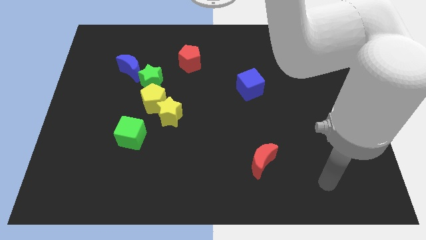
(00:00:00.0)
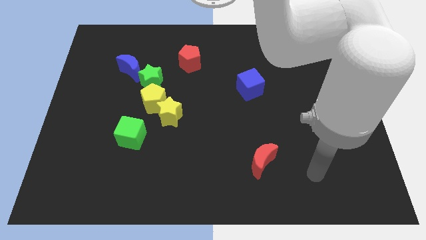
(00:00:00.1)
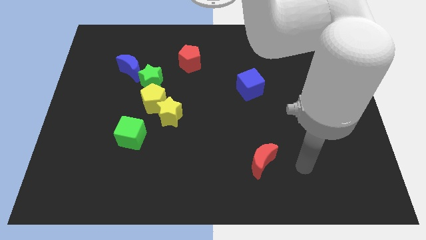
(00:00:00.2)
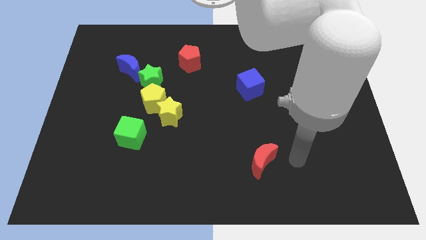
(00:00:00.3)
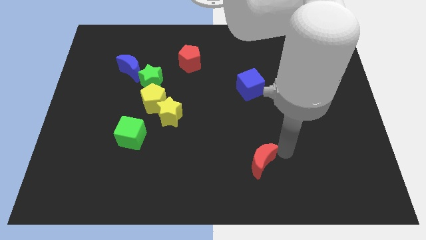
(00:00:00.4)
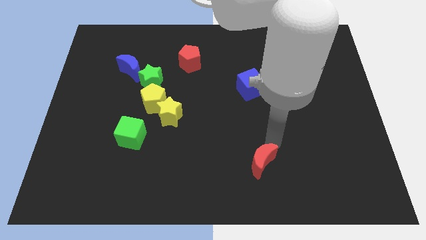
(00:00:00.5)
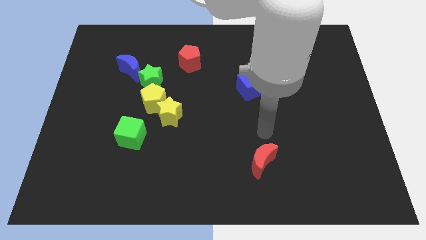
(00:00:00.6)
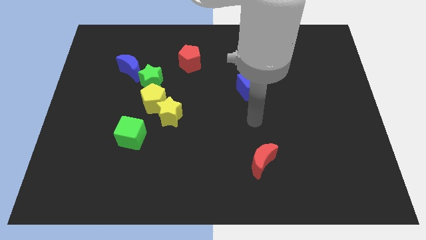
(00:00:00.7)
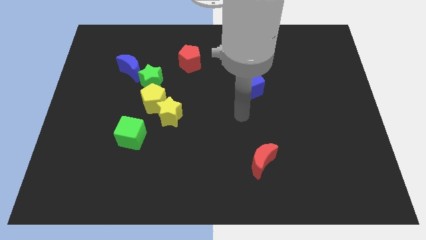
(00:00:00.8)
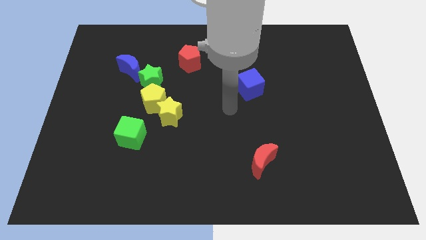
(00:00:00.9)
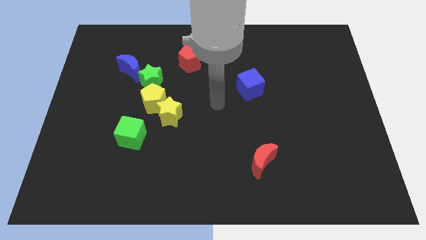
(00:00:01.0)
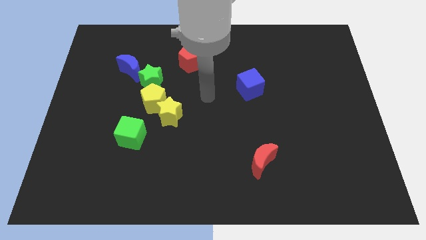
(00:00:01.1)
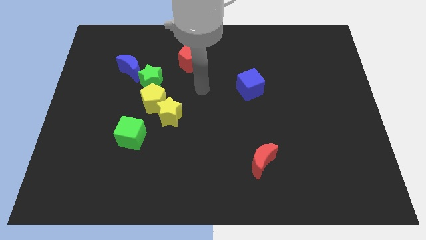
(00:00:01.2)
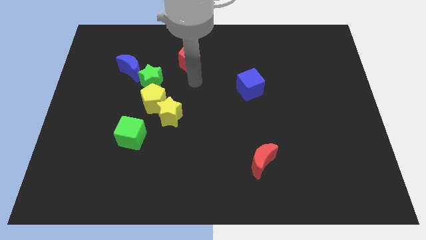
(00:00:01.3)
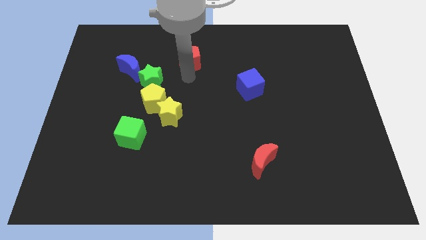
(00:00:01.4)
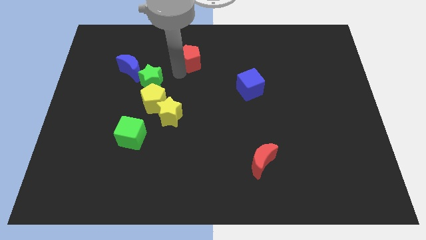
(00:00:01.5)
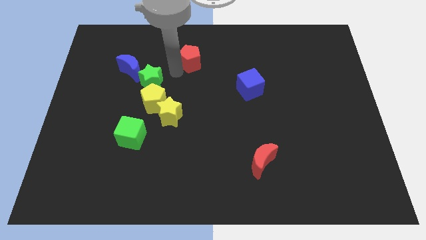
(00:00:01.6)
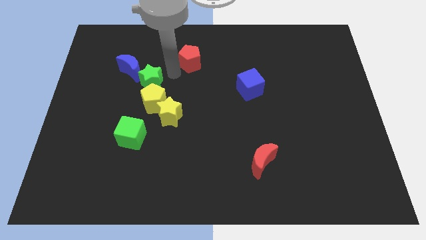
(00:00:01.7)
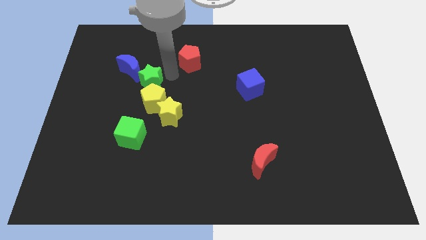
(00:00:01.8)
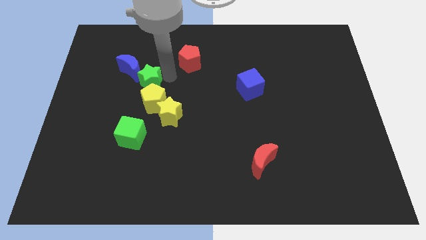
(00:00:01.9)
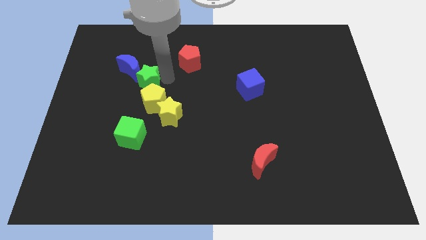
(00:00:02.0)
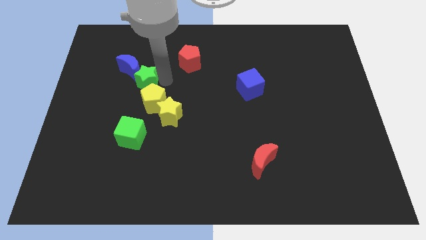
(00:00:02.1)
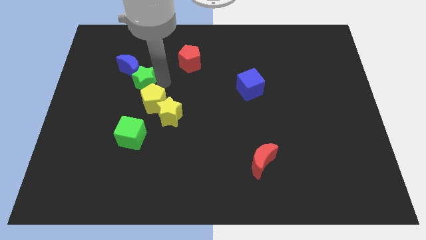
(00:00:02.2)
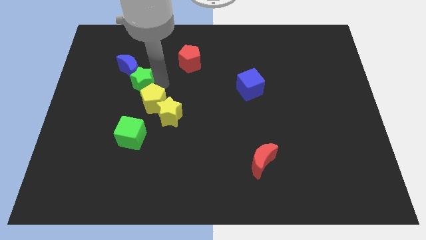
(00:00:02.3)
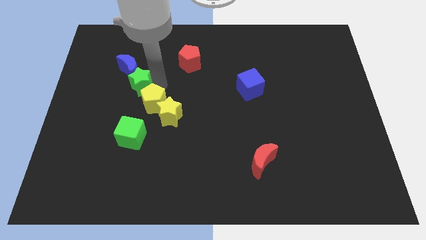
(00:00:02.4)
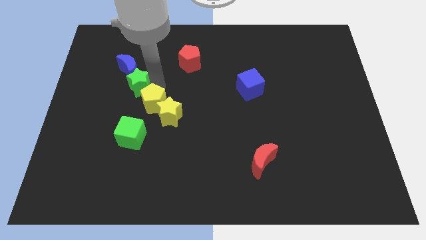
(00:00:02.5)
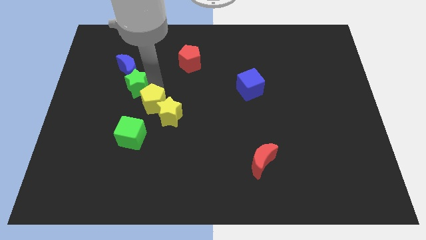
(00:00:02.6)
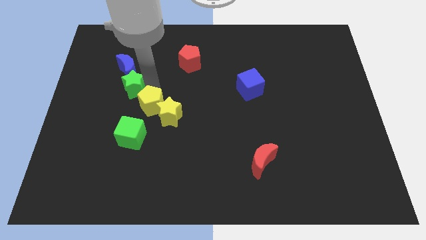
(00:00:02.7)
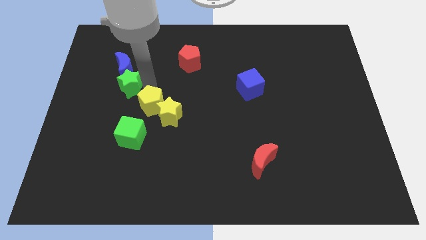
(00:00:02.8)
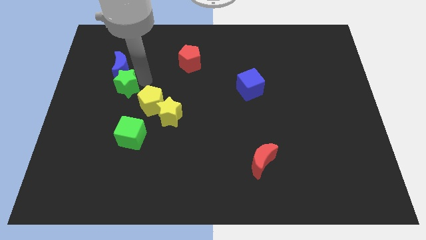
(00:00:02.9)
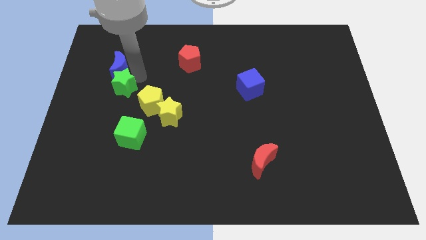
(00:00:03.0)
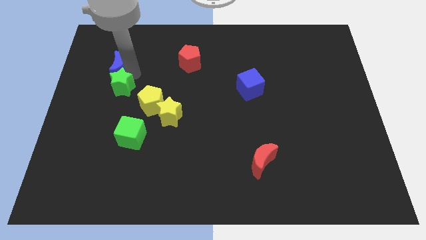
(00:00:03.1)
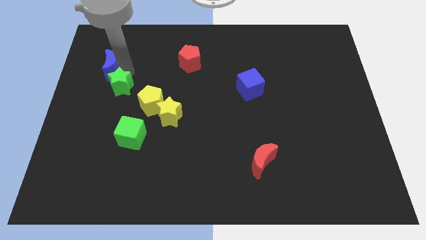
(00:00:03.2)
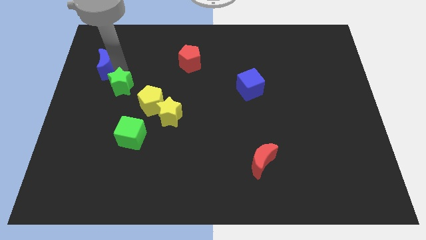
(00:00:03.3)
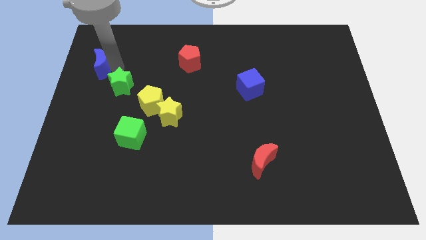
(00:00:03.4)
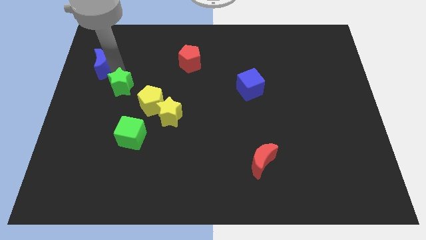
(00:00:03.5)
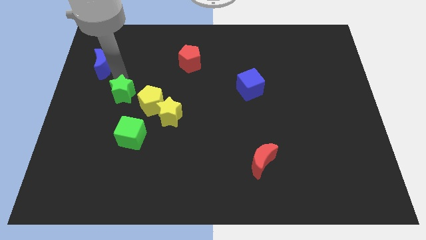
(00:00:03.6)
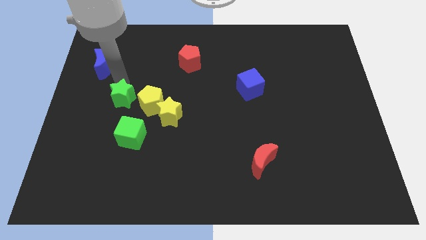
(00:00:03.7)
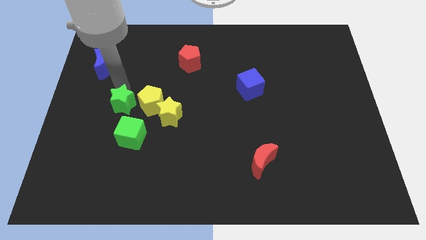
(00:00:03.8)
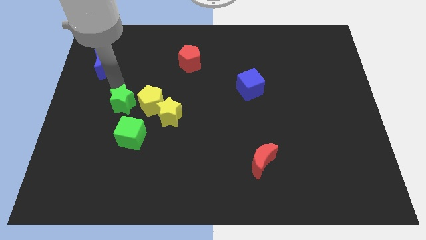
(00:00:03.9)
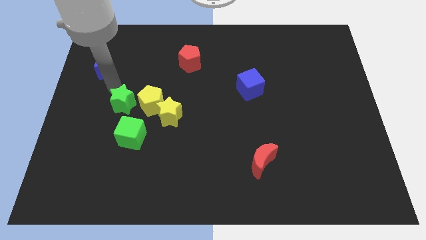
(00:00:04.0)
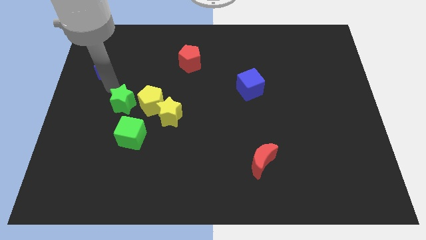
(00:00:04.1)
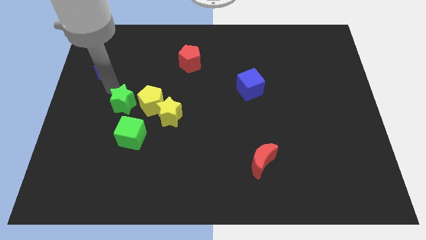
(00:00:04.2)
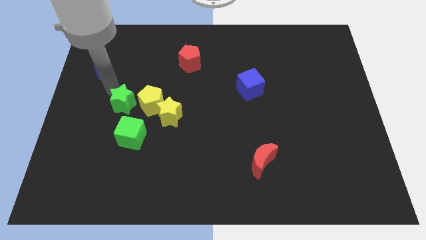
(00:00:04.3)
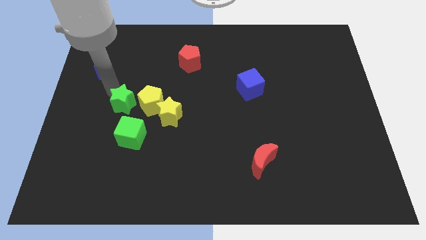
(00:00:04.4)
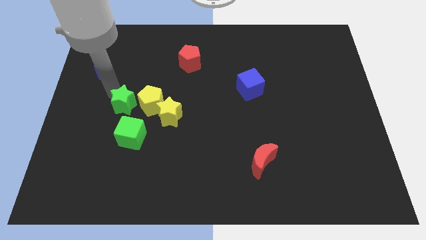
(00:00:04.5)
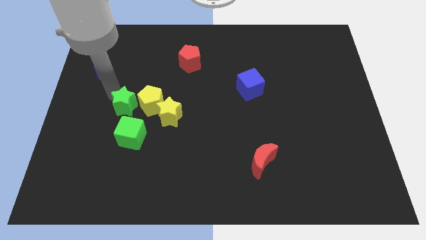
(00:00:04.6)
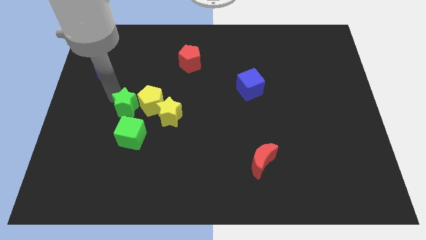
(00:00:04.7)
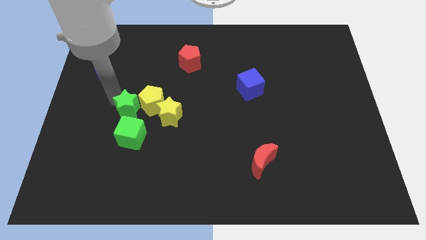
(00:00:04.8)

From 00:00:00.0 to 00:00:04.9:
slightly push the green star down

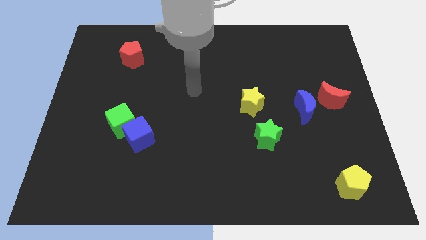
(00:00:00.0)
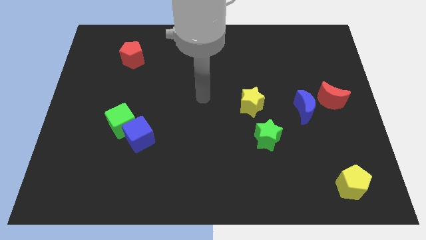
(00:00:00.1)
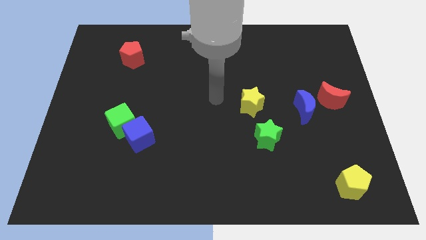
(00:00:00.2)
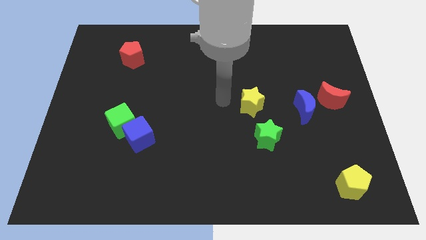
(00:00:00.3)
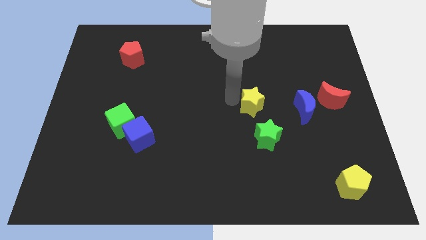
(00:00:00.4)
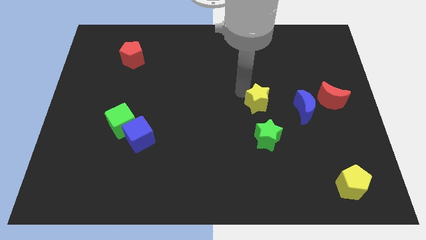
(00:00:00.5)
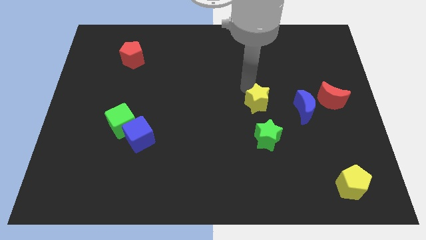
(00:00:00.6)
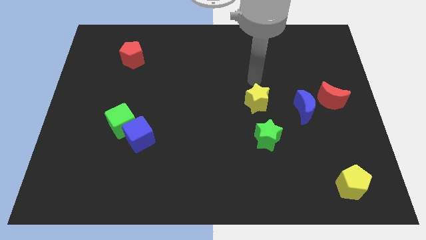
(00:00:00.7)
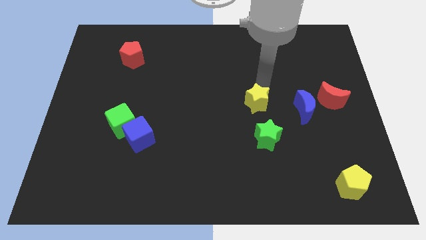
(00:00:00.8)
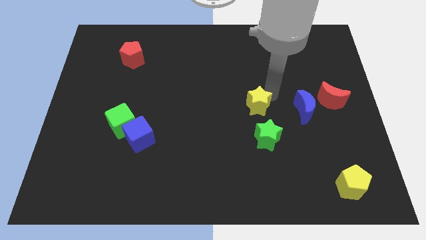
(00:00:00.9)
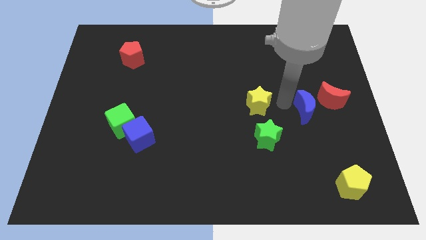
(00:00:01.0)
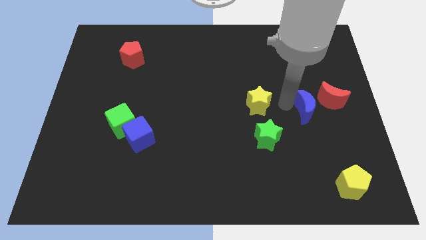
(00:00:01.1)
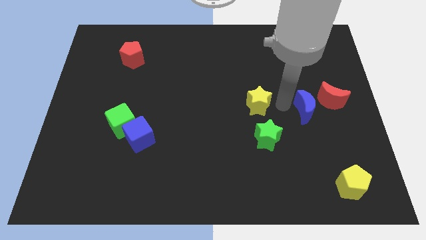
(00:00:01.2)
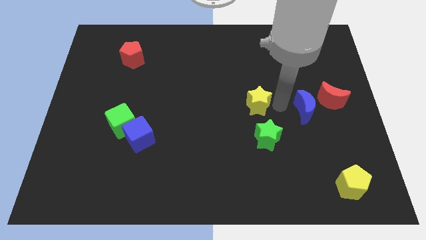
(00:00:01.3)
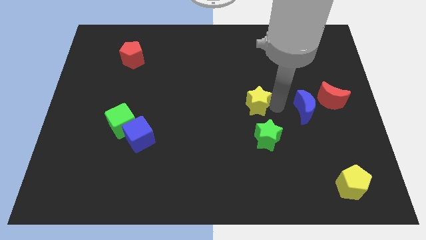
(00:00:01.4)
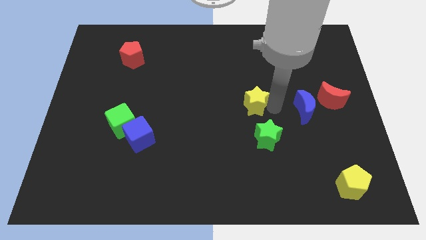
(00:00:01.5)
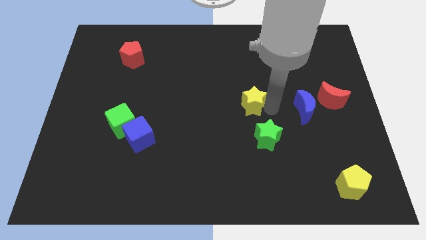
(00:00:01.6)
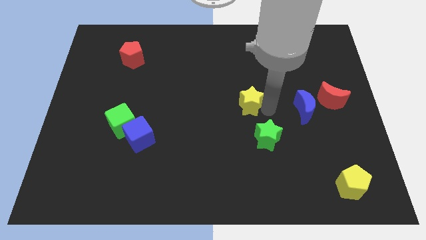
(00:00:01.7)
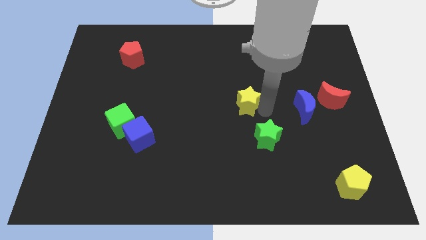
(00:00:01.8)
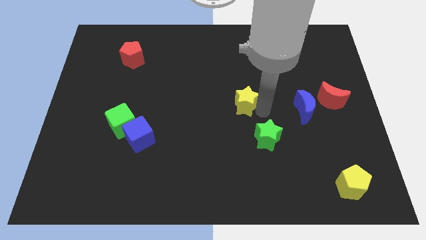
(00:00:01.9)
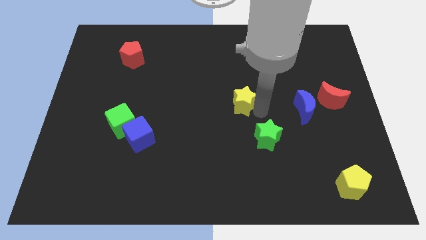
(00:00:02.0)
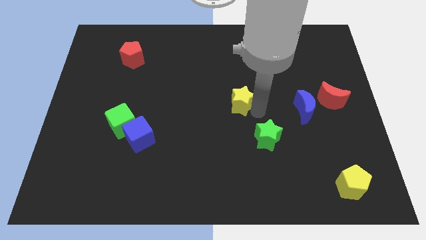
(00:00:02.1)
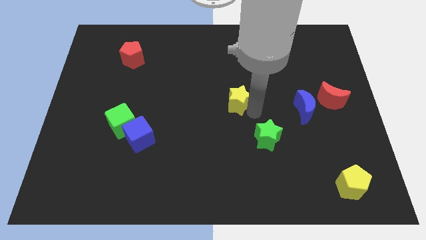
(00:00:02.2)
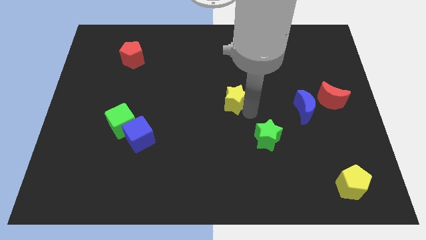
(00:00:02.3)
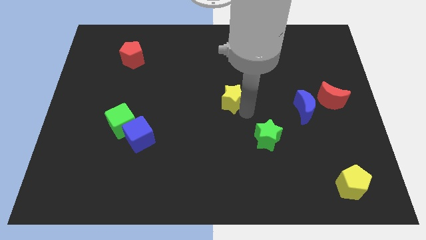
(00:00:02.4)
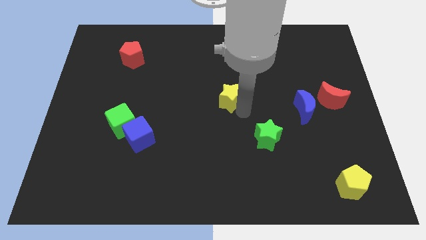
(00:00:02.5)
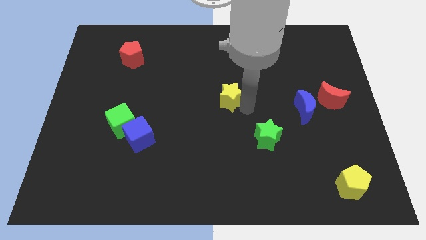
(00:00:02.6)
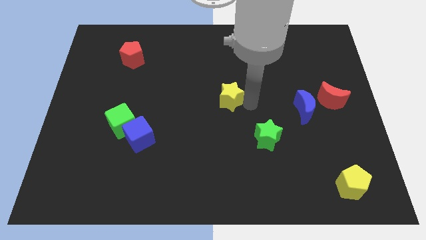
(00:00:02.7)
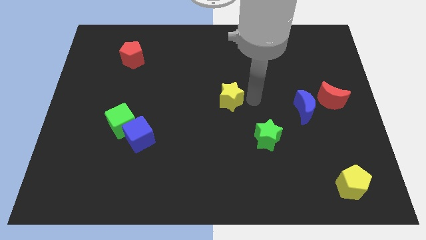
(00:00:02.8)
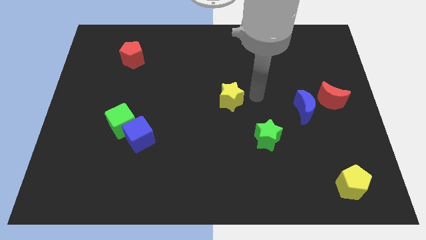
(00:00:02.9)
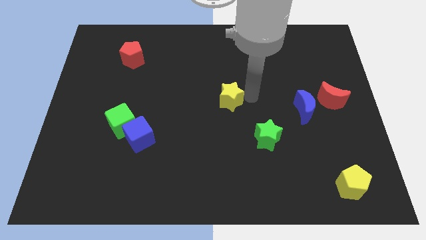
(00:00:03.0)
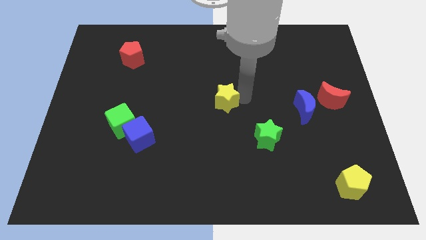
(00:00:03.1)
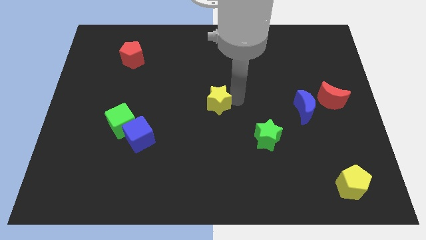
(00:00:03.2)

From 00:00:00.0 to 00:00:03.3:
move the yellow star somewhat left
